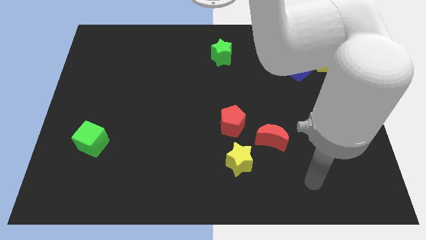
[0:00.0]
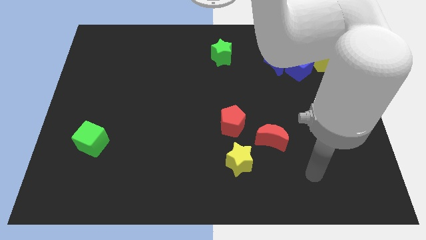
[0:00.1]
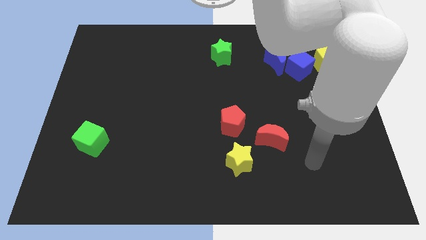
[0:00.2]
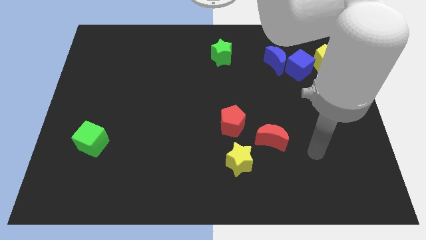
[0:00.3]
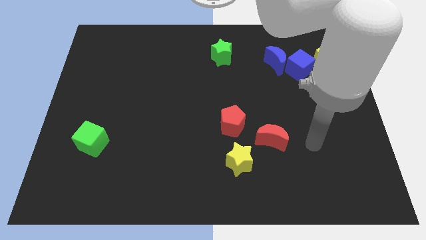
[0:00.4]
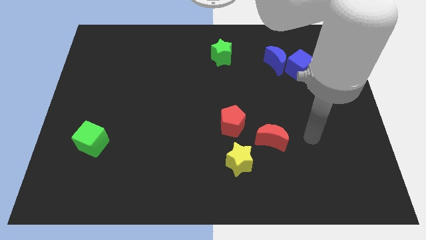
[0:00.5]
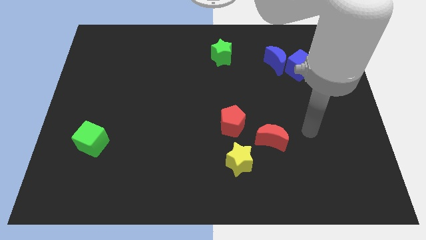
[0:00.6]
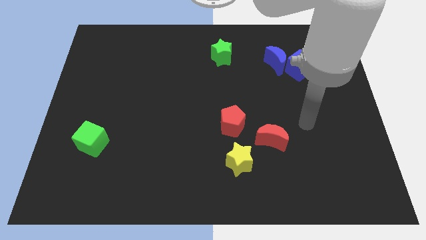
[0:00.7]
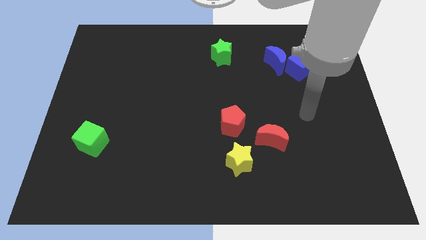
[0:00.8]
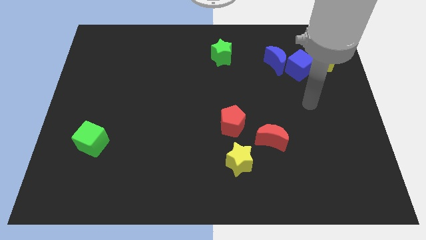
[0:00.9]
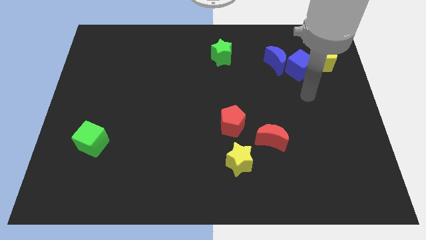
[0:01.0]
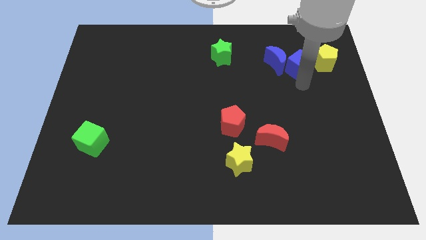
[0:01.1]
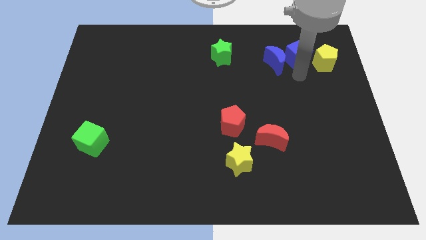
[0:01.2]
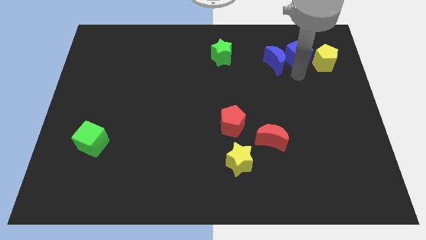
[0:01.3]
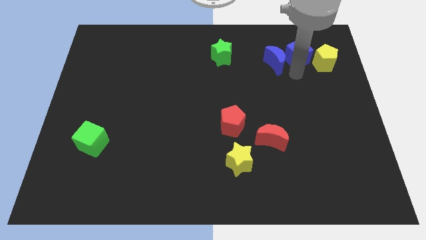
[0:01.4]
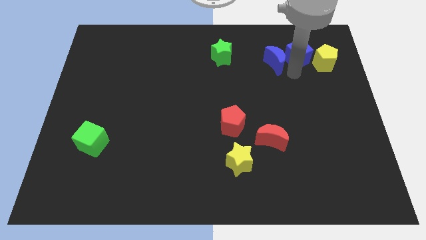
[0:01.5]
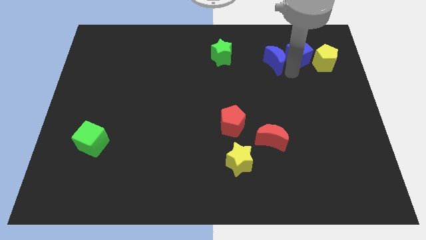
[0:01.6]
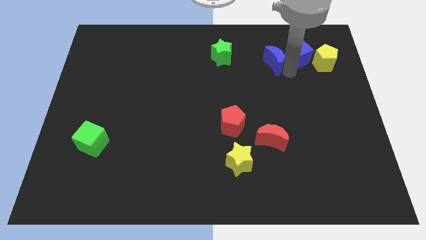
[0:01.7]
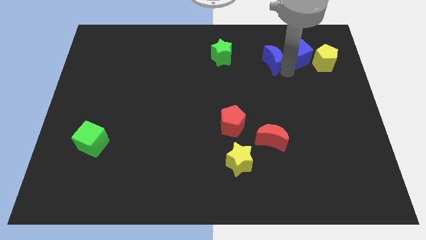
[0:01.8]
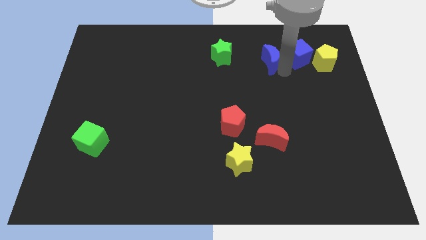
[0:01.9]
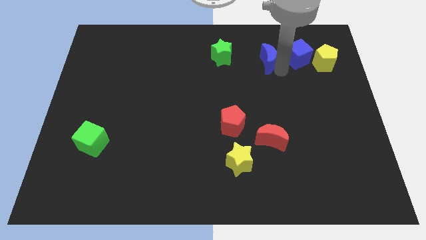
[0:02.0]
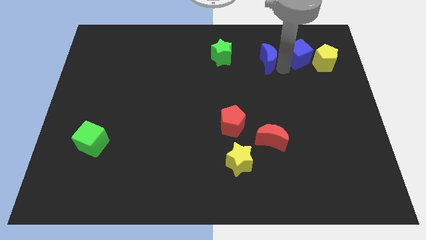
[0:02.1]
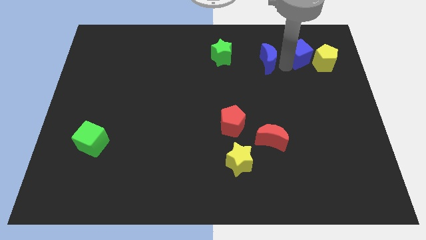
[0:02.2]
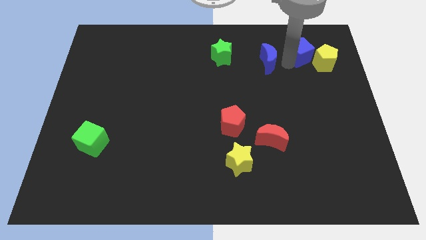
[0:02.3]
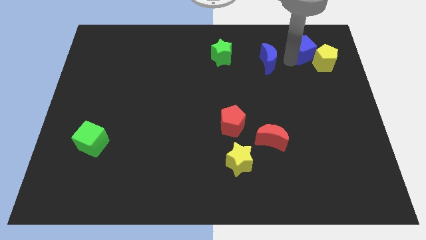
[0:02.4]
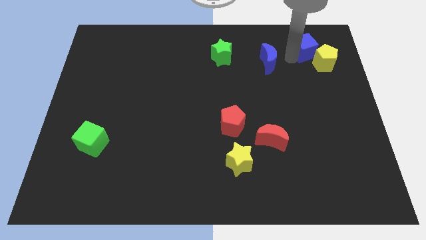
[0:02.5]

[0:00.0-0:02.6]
separate the blue moon from the blue cube

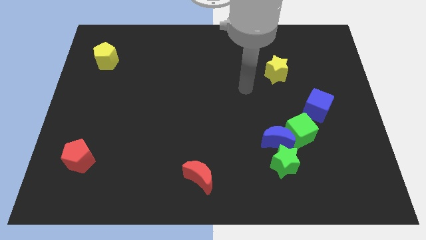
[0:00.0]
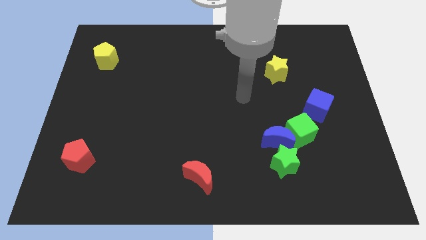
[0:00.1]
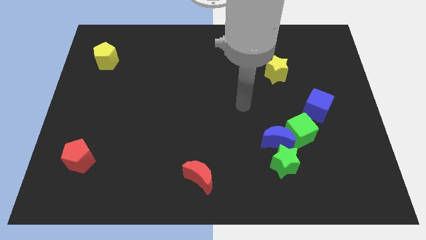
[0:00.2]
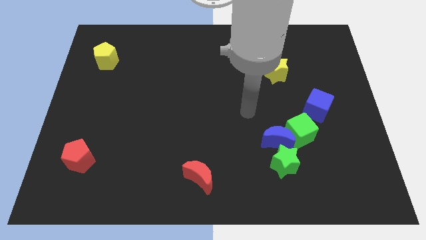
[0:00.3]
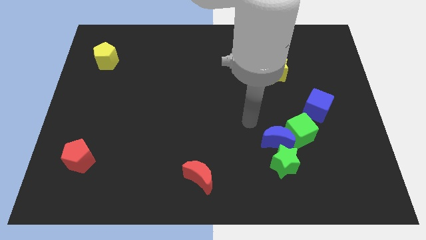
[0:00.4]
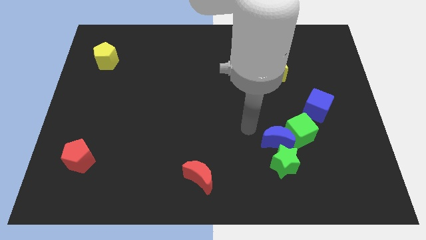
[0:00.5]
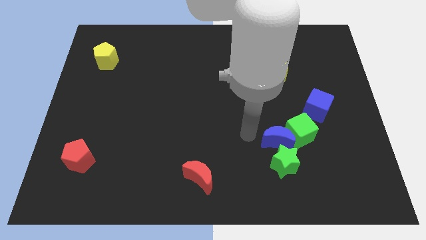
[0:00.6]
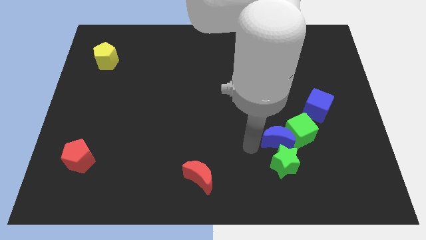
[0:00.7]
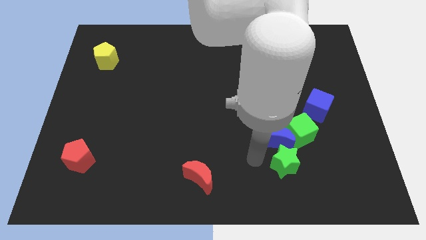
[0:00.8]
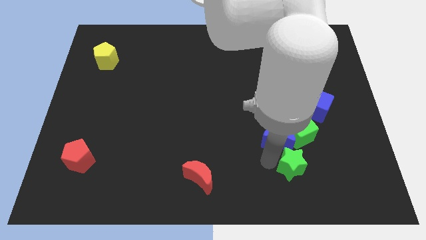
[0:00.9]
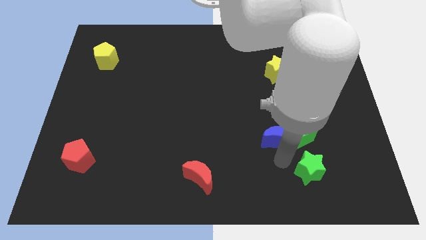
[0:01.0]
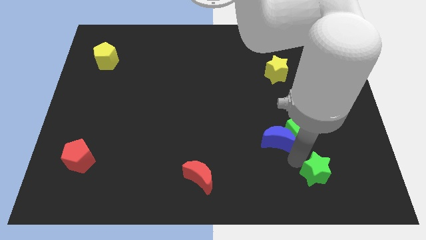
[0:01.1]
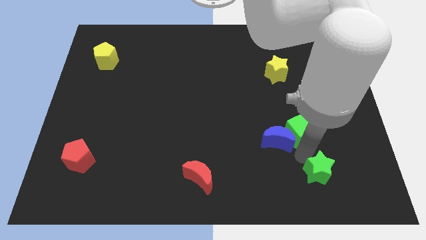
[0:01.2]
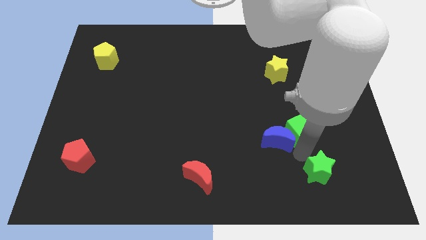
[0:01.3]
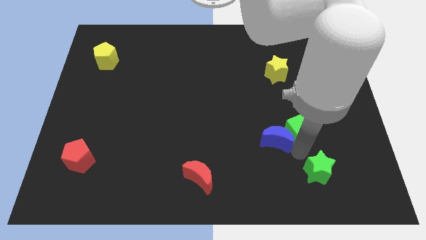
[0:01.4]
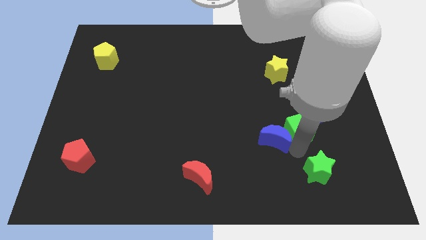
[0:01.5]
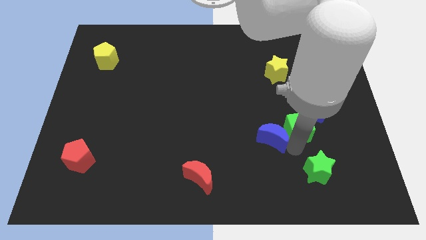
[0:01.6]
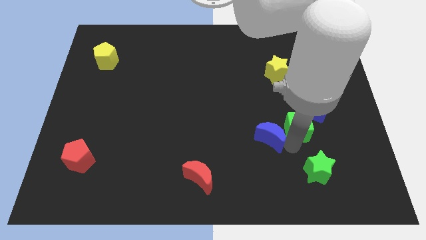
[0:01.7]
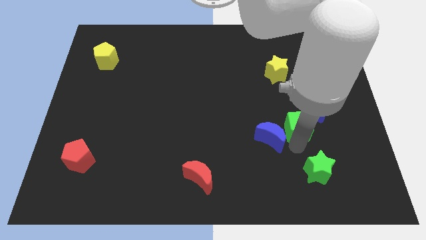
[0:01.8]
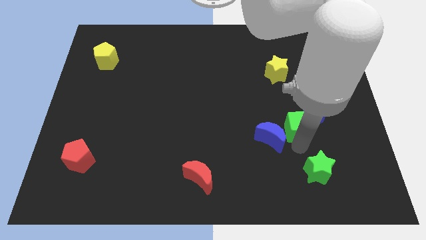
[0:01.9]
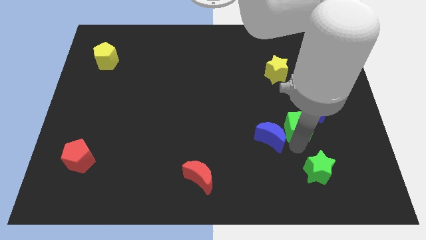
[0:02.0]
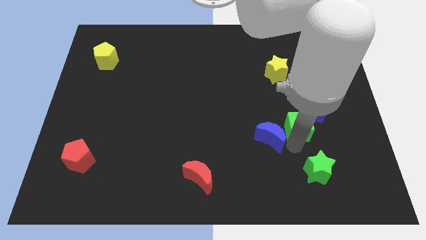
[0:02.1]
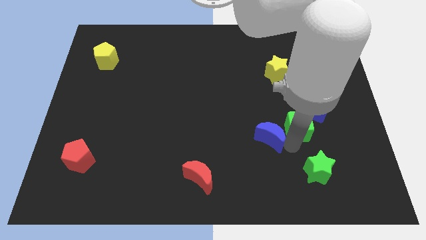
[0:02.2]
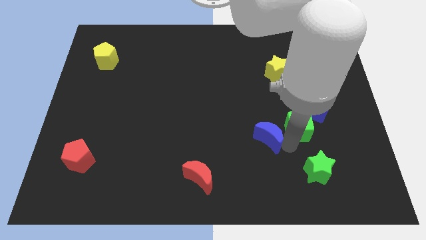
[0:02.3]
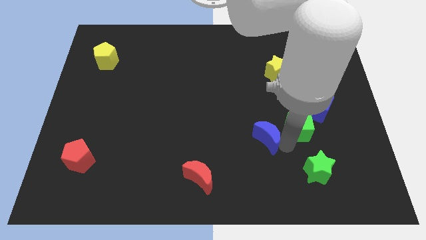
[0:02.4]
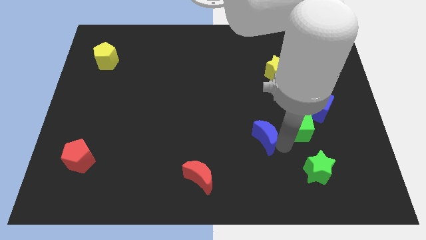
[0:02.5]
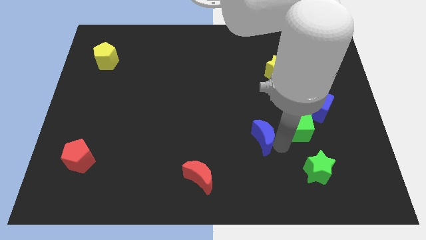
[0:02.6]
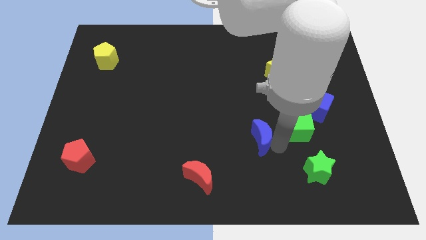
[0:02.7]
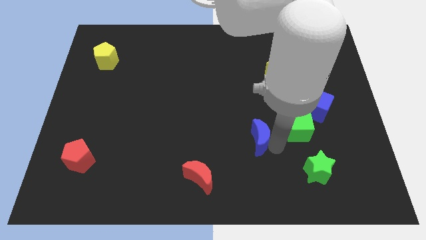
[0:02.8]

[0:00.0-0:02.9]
separate the blue moon from the green cube and green star

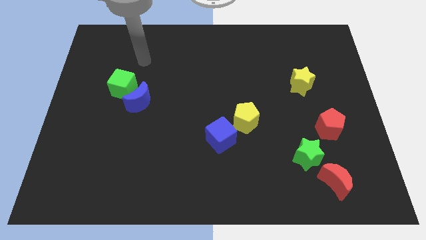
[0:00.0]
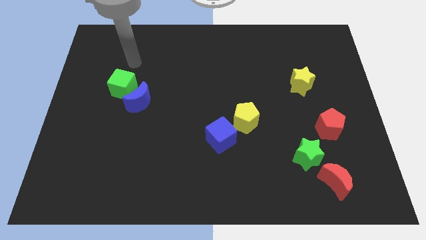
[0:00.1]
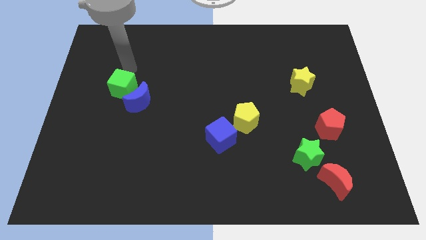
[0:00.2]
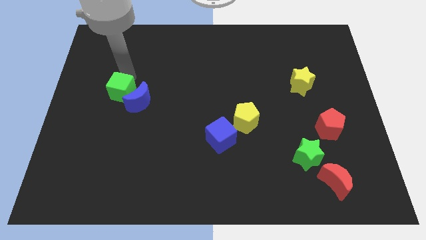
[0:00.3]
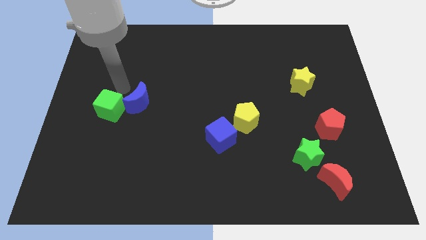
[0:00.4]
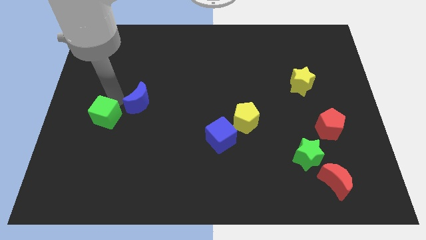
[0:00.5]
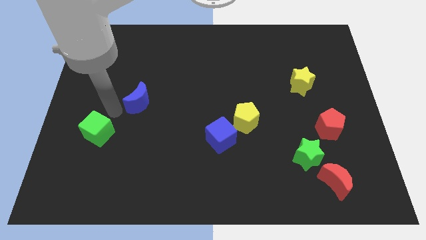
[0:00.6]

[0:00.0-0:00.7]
pull the blue moon apart from the green cube

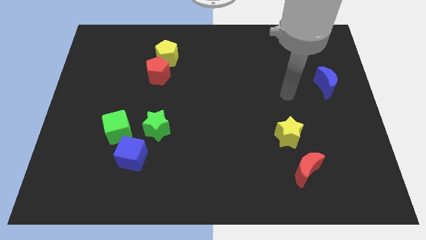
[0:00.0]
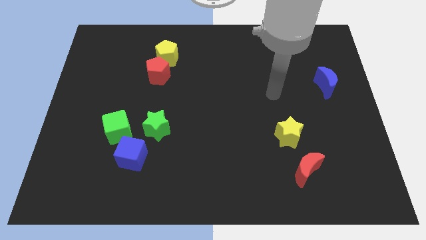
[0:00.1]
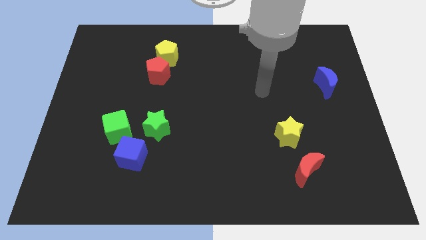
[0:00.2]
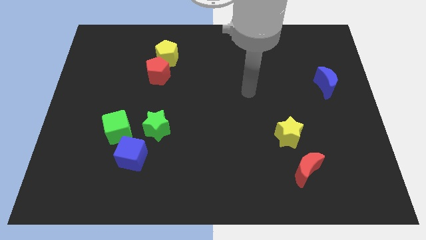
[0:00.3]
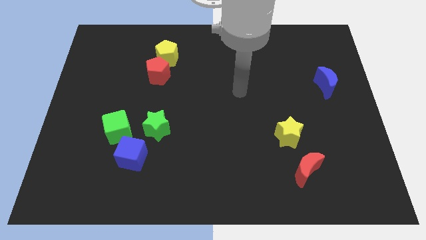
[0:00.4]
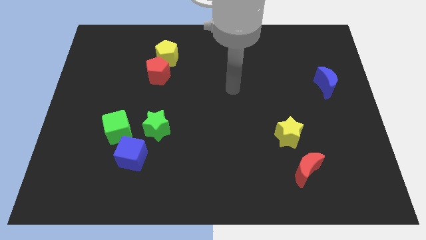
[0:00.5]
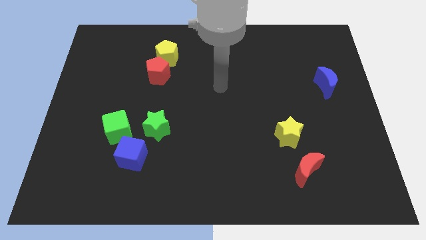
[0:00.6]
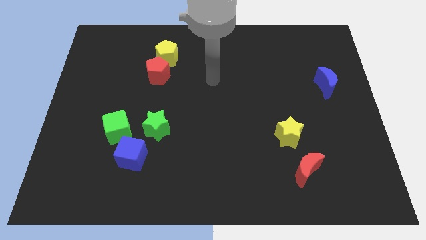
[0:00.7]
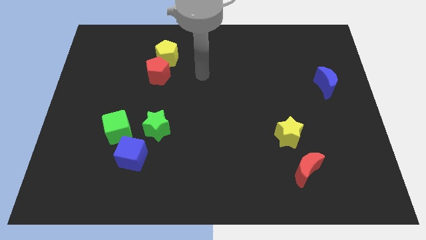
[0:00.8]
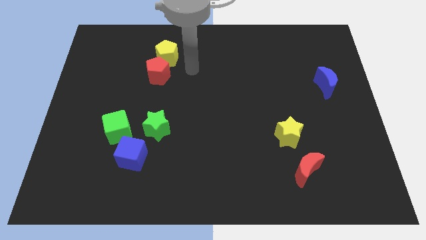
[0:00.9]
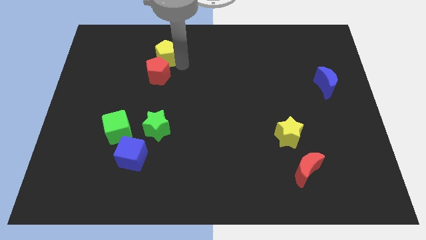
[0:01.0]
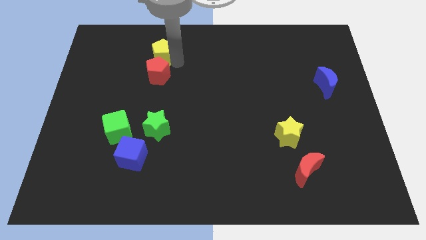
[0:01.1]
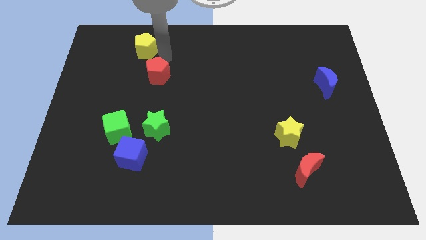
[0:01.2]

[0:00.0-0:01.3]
pull the red pentagon apart from the yellow pentagon

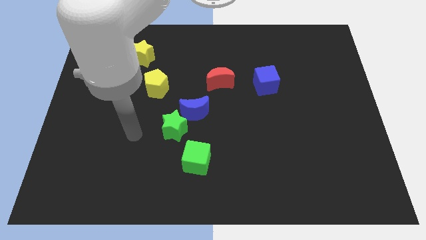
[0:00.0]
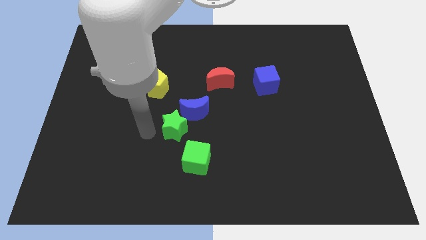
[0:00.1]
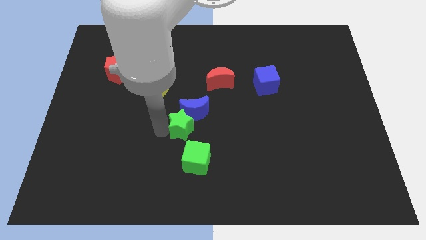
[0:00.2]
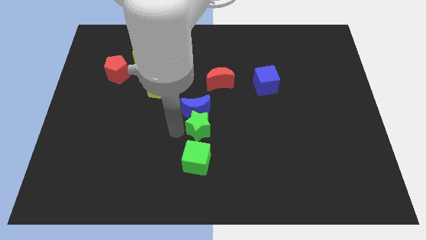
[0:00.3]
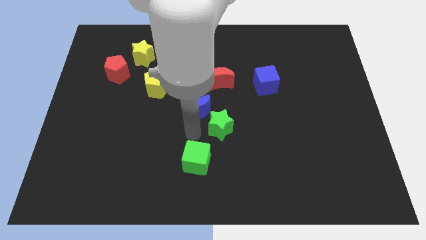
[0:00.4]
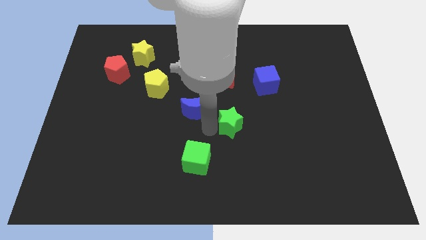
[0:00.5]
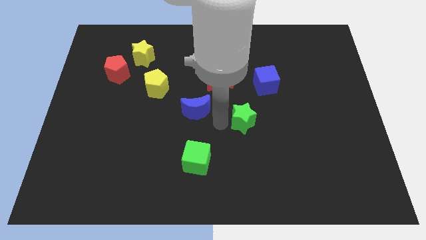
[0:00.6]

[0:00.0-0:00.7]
separate the blue moon from the green star

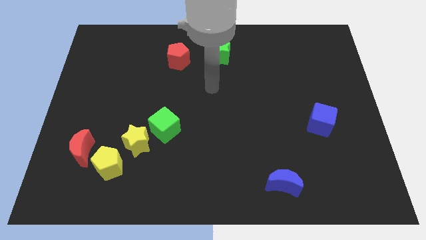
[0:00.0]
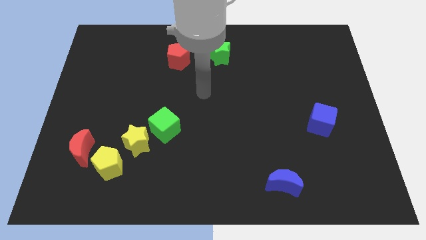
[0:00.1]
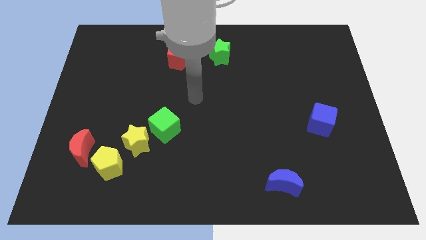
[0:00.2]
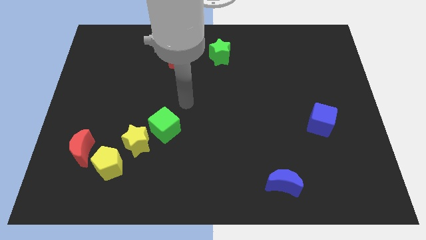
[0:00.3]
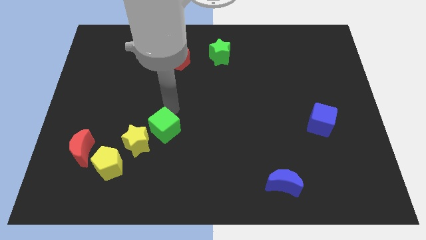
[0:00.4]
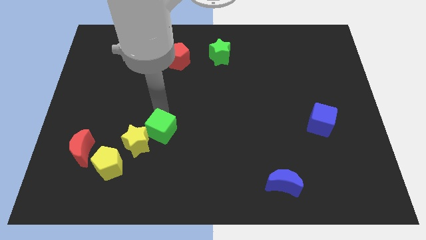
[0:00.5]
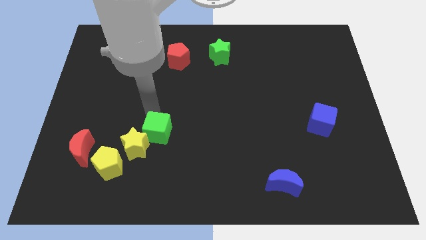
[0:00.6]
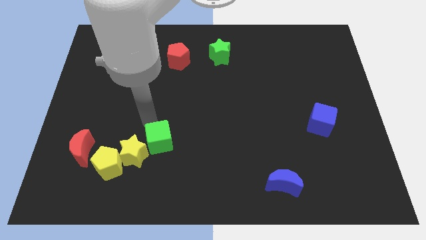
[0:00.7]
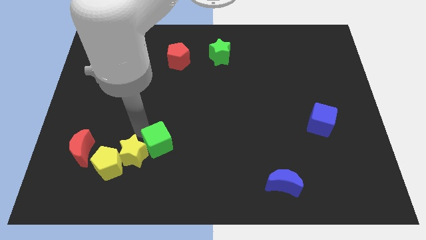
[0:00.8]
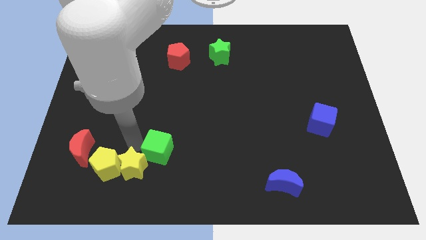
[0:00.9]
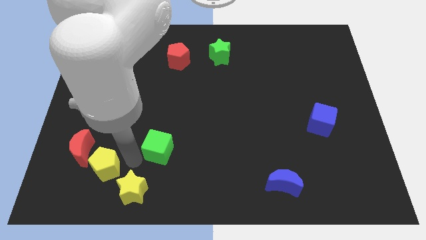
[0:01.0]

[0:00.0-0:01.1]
separate the green cube from the yellow star
